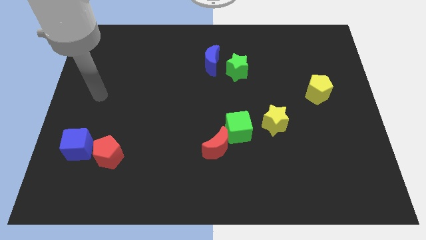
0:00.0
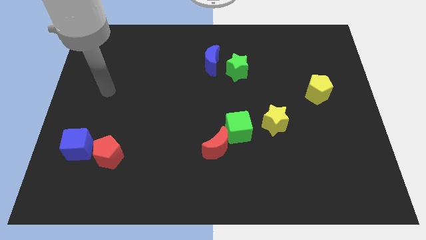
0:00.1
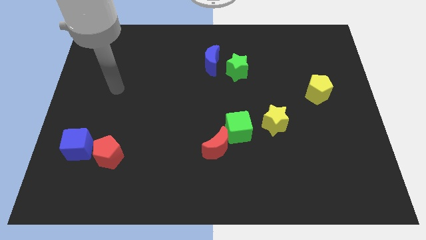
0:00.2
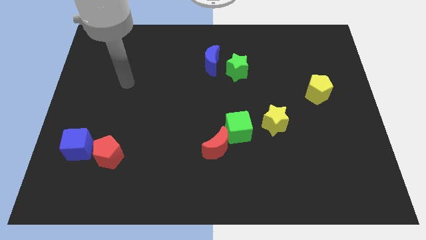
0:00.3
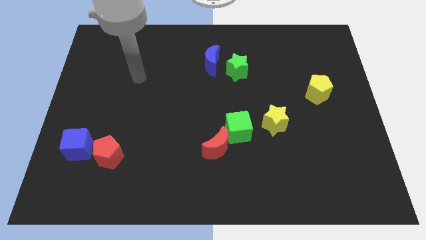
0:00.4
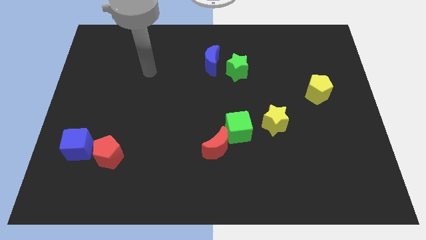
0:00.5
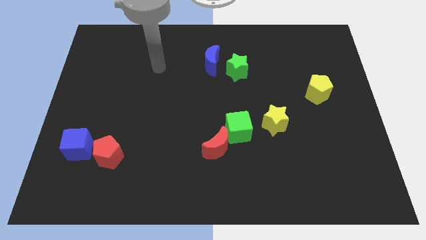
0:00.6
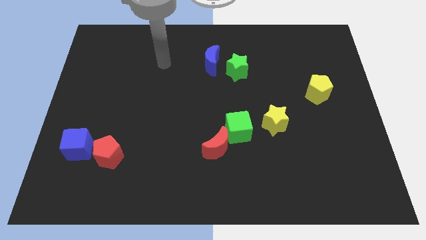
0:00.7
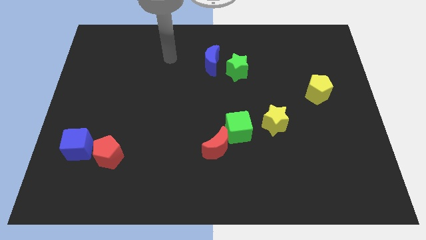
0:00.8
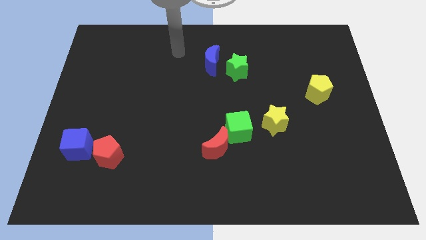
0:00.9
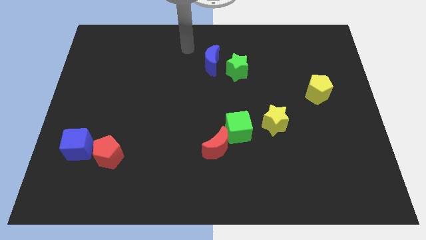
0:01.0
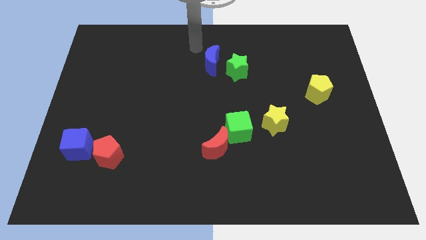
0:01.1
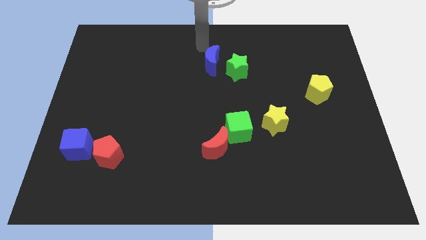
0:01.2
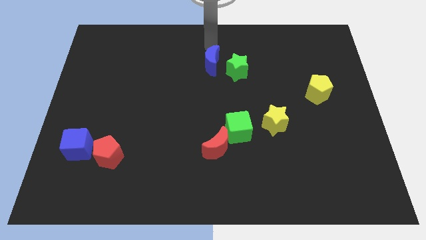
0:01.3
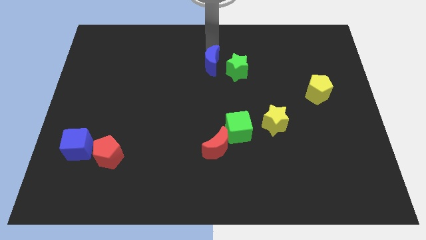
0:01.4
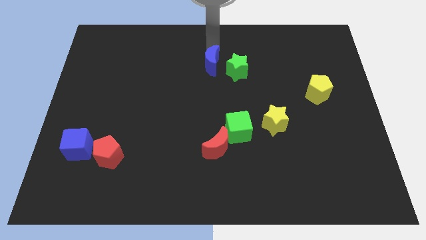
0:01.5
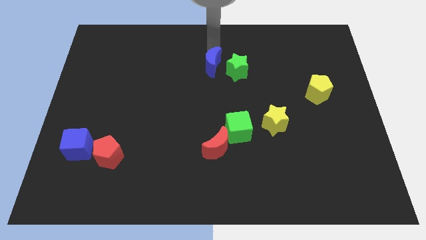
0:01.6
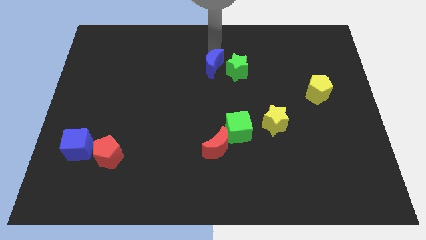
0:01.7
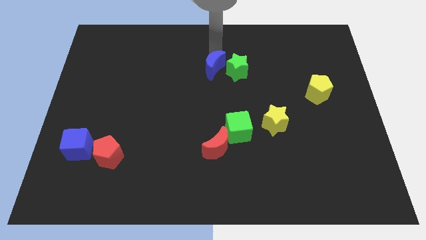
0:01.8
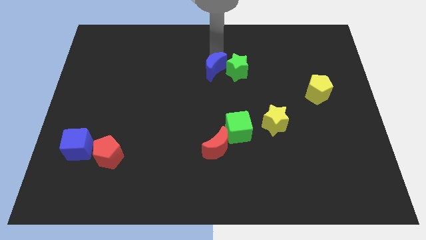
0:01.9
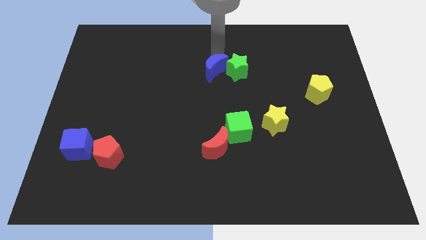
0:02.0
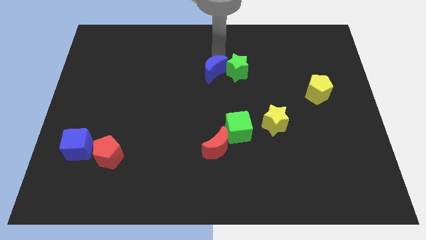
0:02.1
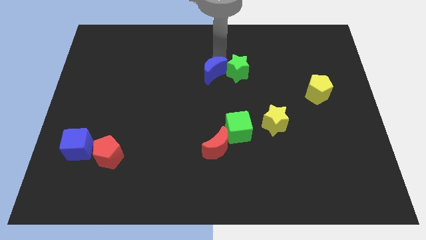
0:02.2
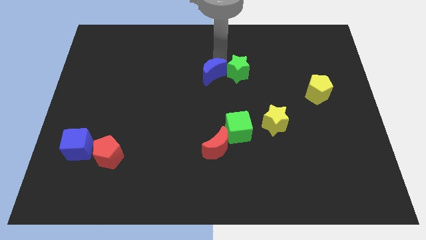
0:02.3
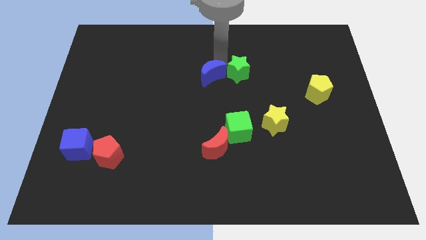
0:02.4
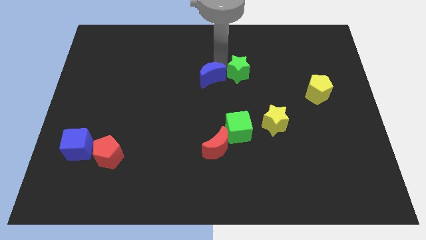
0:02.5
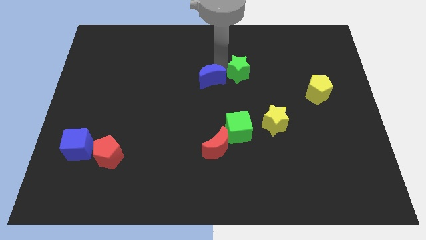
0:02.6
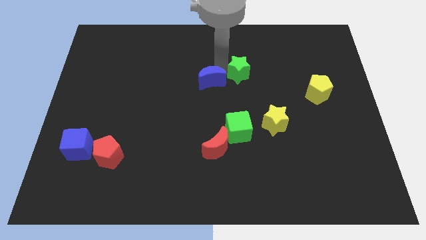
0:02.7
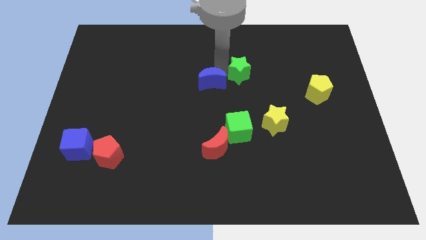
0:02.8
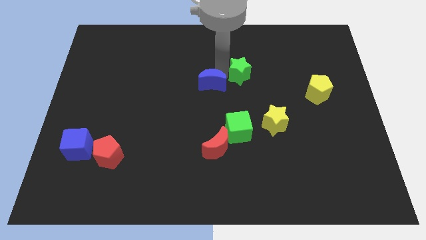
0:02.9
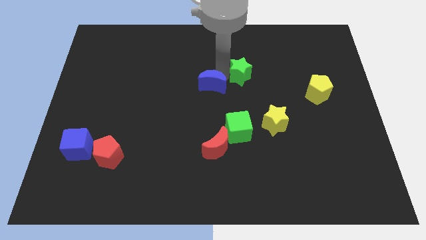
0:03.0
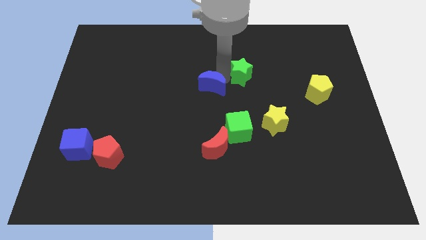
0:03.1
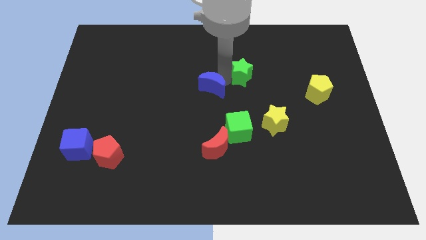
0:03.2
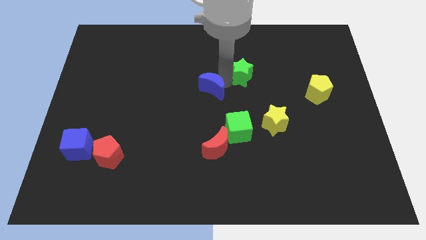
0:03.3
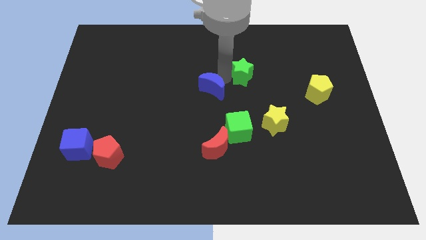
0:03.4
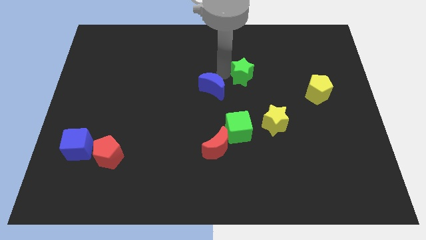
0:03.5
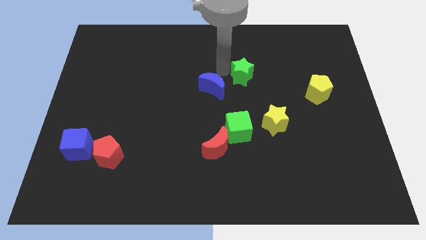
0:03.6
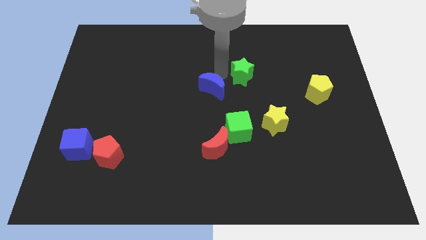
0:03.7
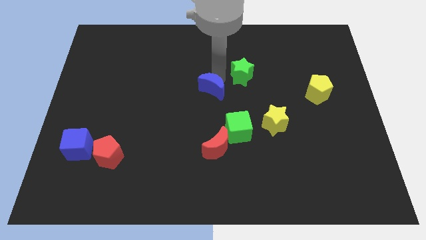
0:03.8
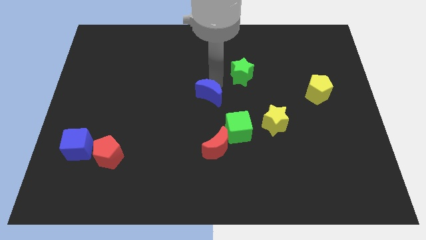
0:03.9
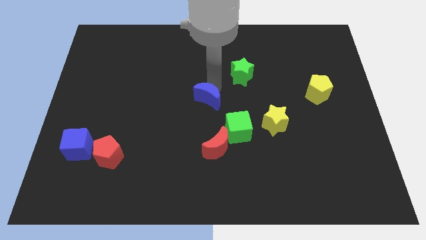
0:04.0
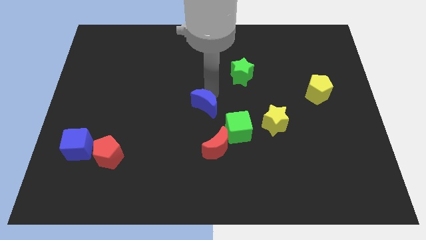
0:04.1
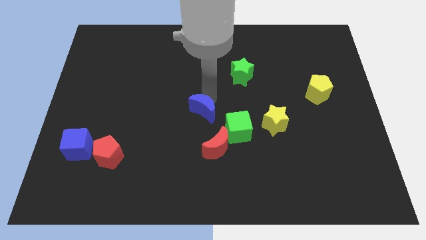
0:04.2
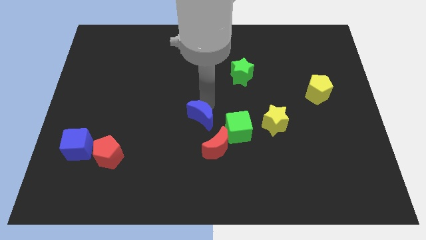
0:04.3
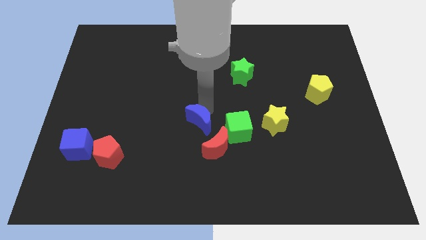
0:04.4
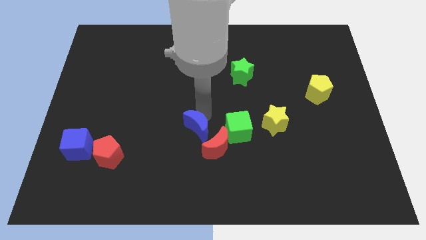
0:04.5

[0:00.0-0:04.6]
push the blue moon downwards

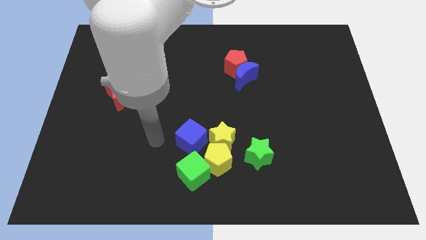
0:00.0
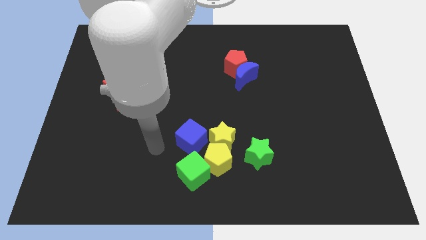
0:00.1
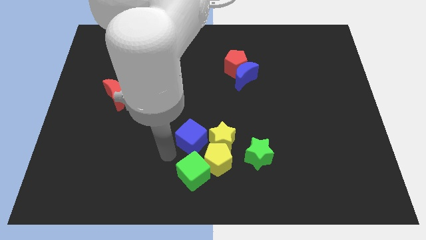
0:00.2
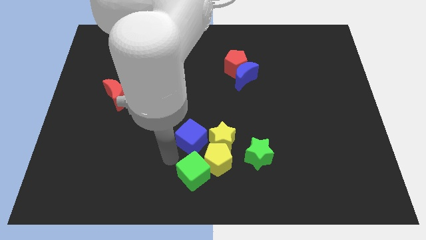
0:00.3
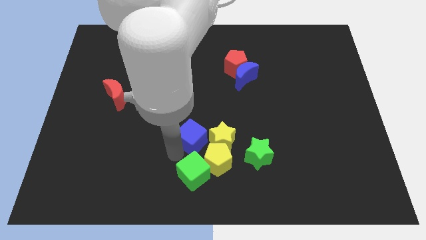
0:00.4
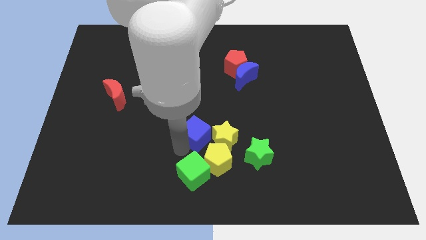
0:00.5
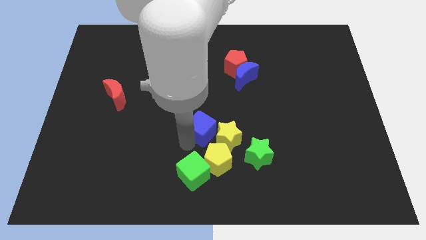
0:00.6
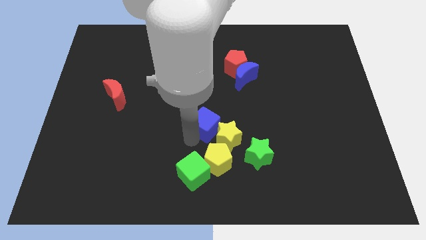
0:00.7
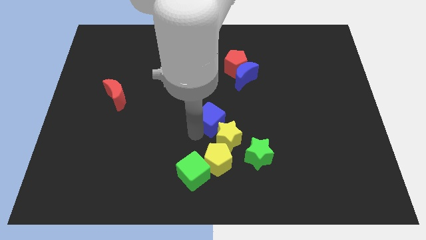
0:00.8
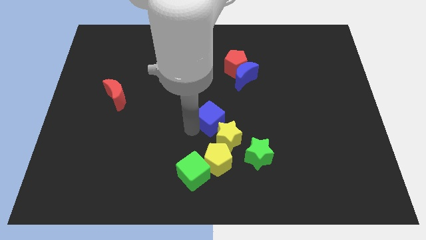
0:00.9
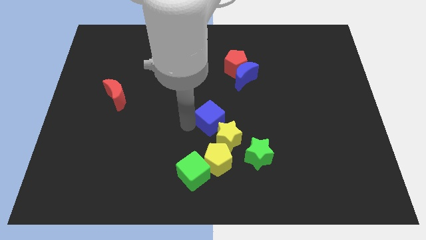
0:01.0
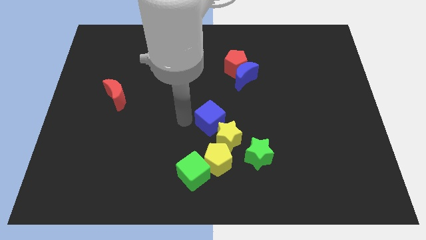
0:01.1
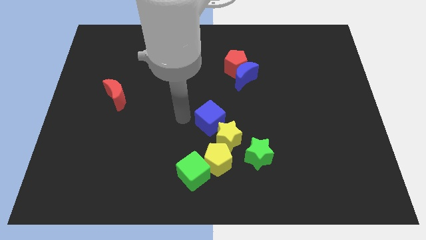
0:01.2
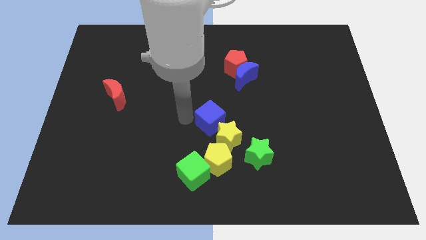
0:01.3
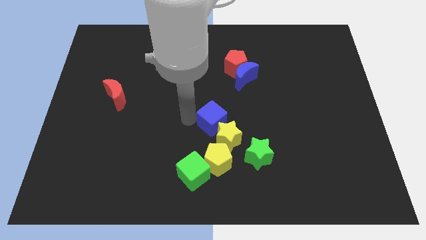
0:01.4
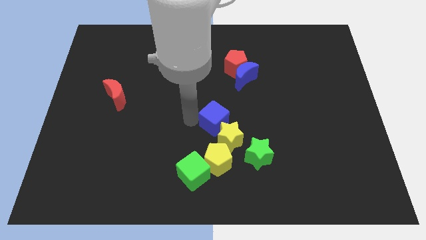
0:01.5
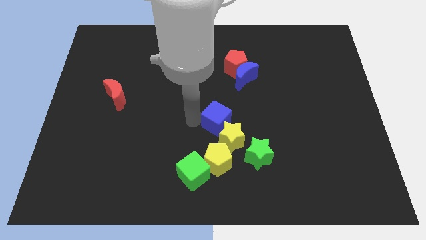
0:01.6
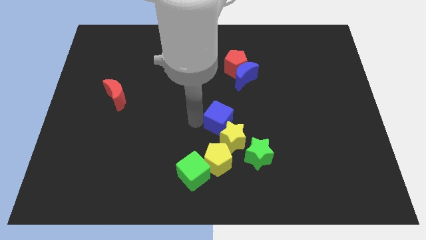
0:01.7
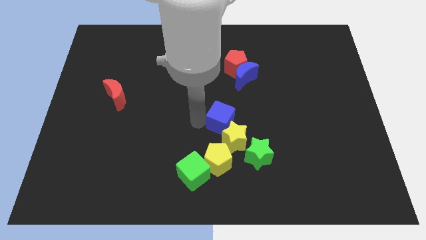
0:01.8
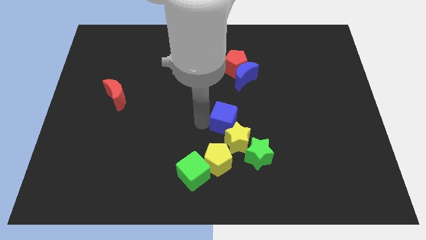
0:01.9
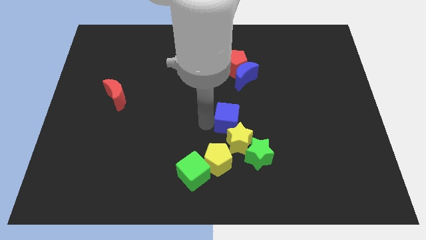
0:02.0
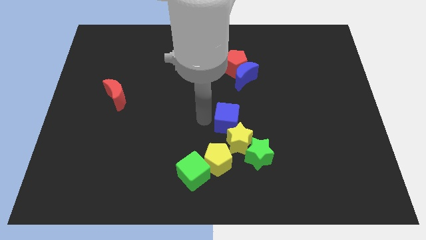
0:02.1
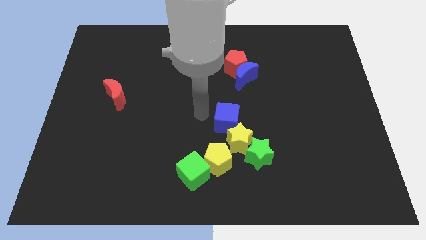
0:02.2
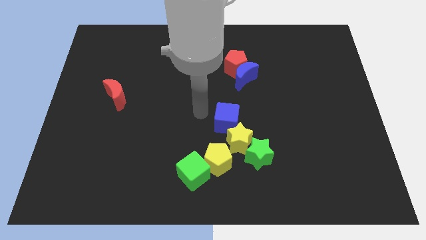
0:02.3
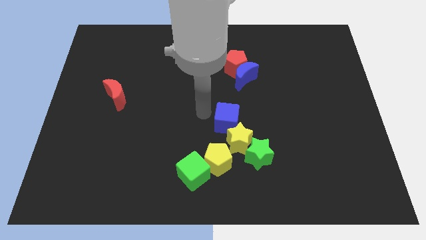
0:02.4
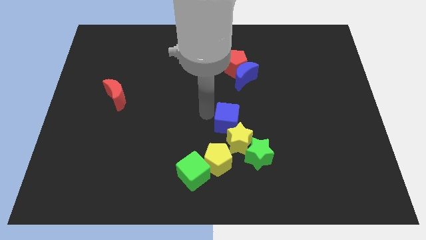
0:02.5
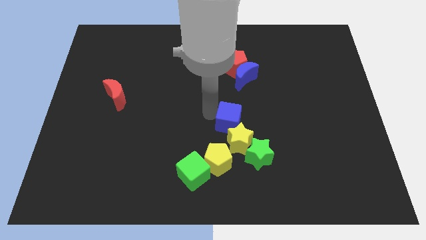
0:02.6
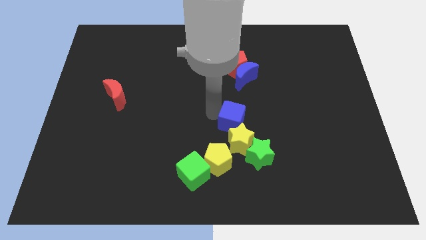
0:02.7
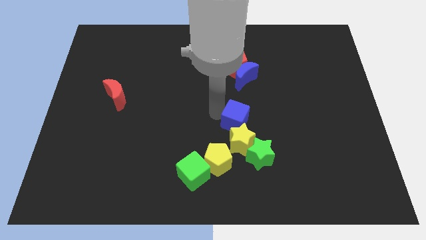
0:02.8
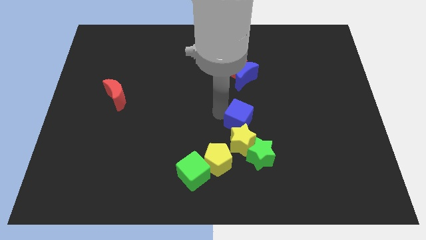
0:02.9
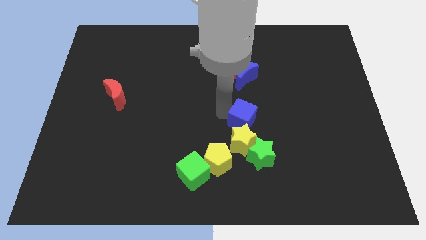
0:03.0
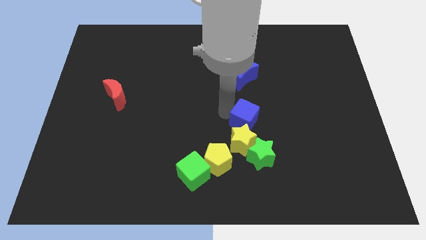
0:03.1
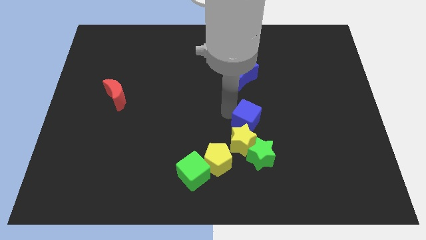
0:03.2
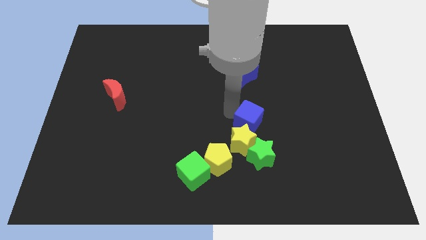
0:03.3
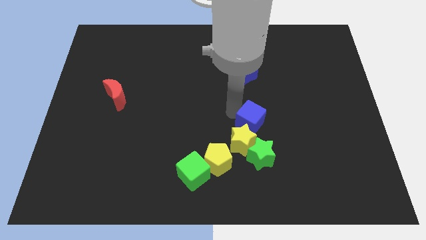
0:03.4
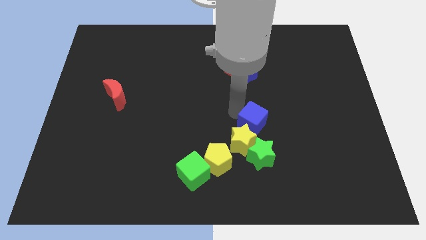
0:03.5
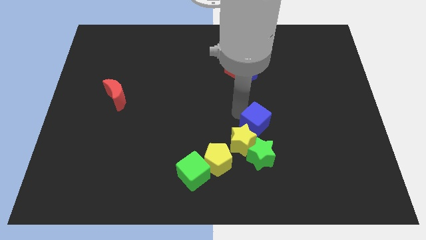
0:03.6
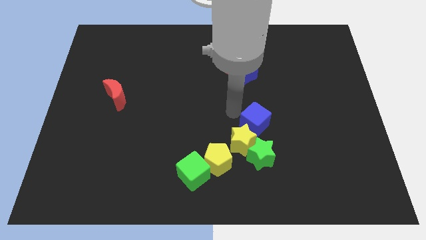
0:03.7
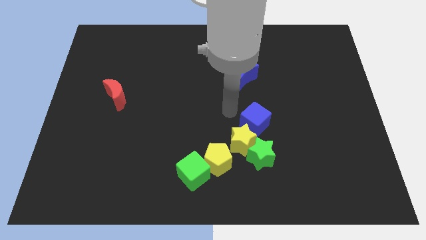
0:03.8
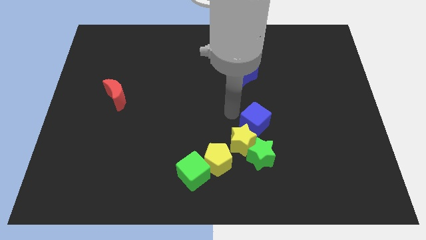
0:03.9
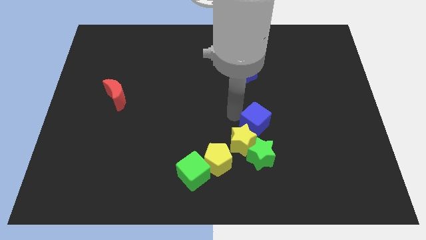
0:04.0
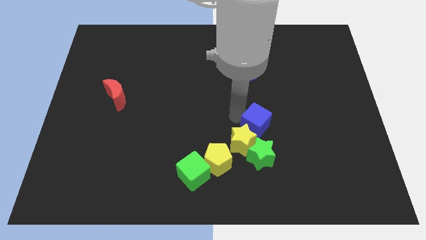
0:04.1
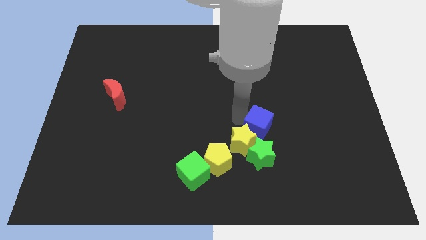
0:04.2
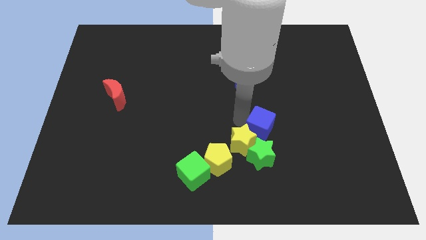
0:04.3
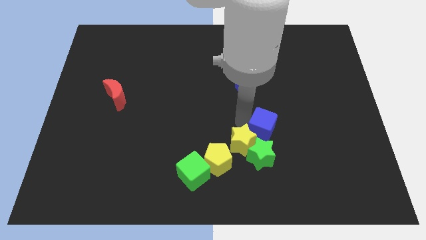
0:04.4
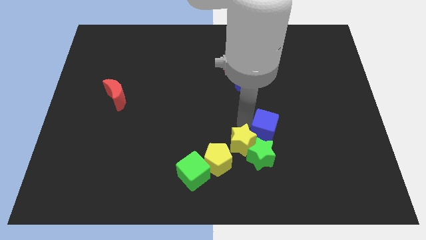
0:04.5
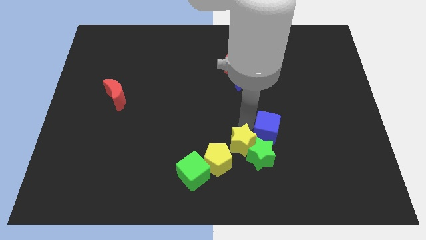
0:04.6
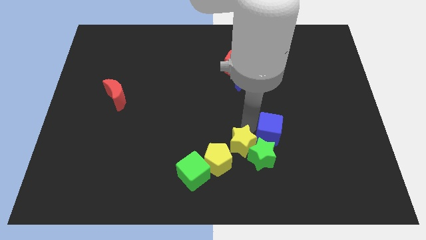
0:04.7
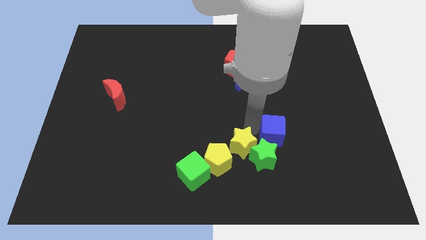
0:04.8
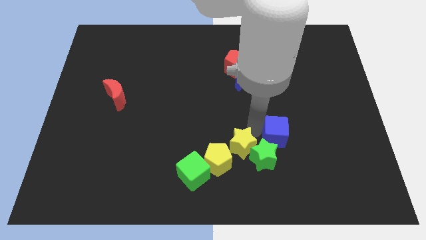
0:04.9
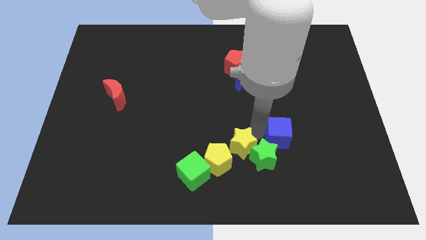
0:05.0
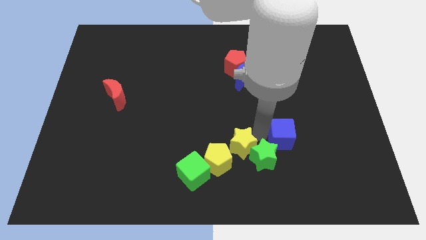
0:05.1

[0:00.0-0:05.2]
move the blue cube right
